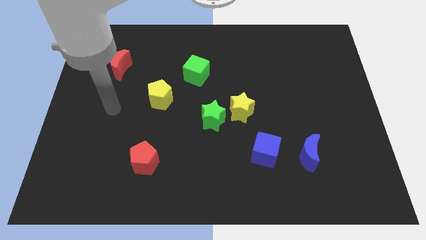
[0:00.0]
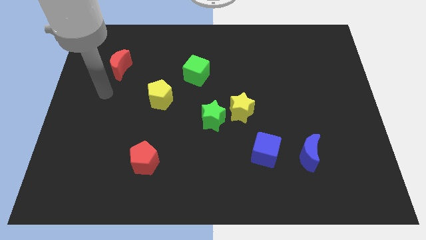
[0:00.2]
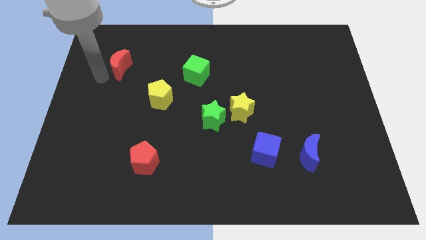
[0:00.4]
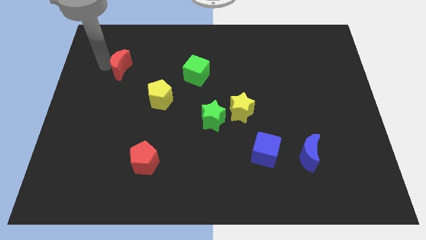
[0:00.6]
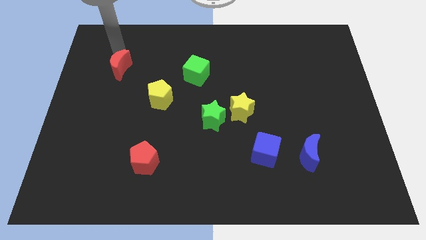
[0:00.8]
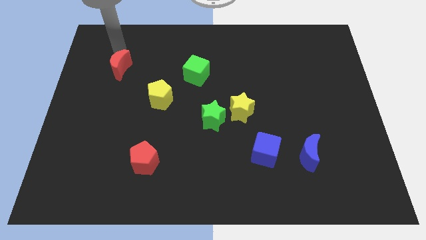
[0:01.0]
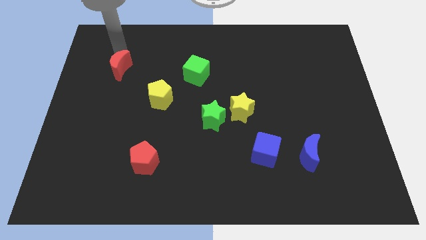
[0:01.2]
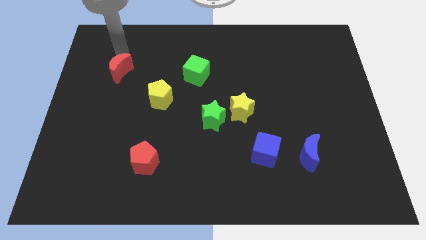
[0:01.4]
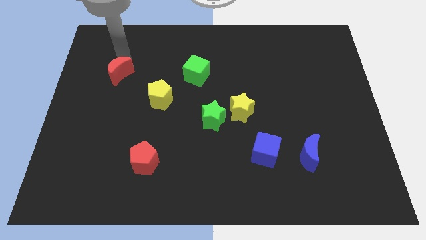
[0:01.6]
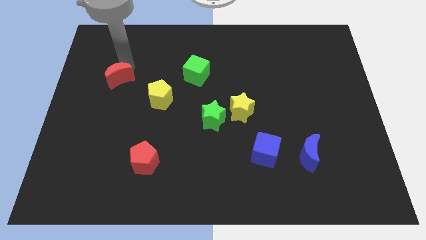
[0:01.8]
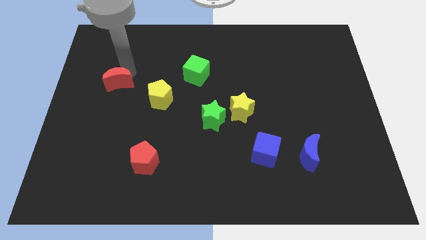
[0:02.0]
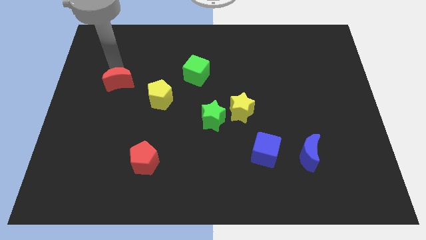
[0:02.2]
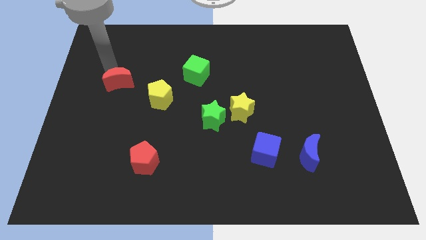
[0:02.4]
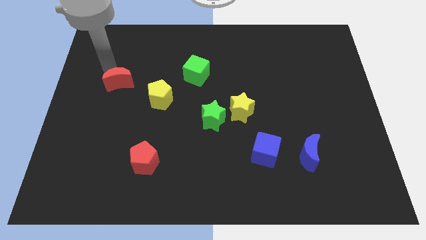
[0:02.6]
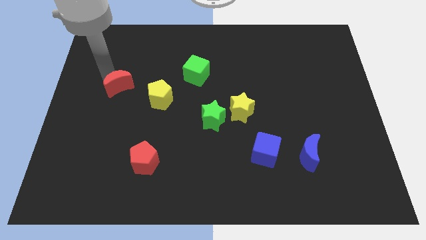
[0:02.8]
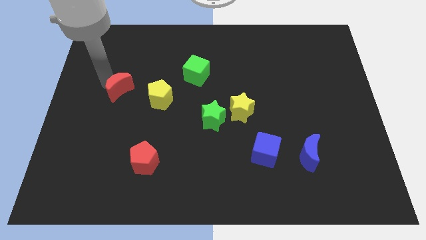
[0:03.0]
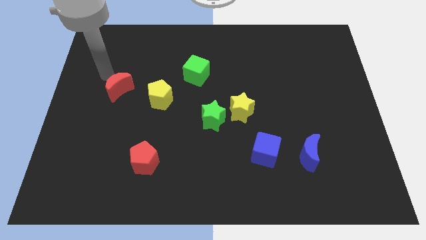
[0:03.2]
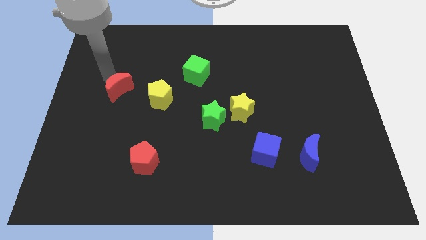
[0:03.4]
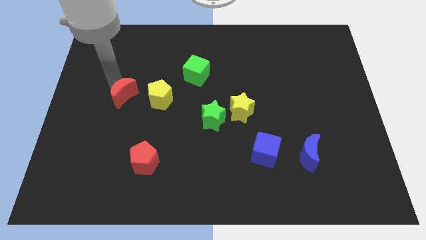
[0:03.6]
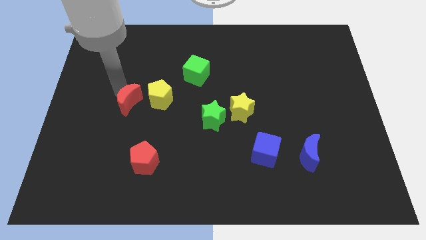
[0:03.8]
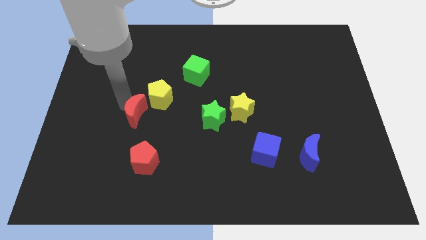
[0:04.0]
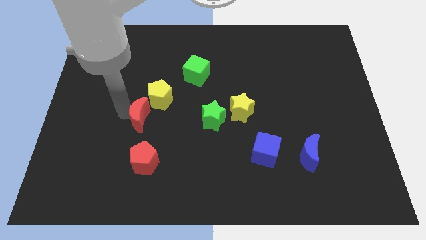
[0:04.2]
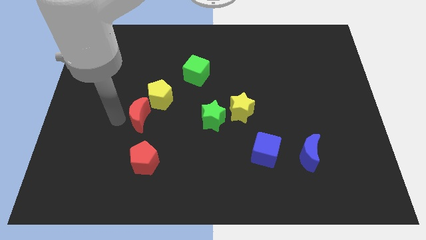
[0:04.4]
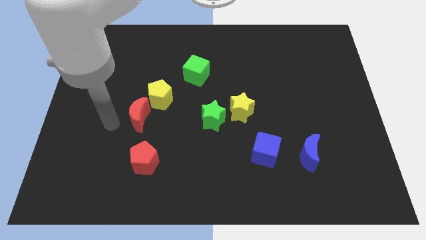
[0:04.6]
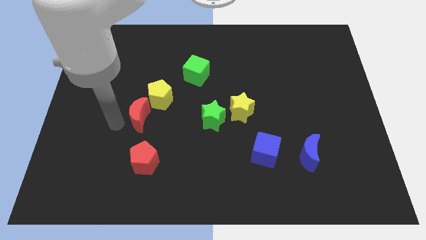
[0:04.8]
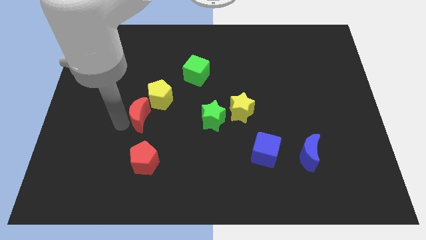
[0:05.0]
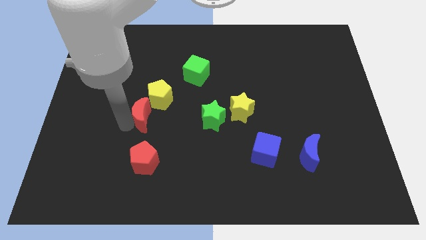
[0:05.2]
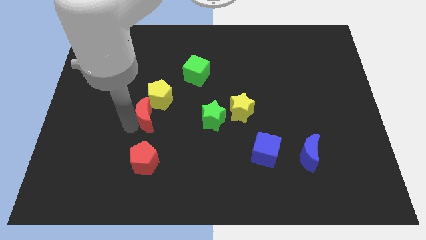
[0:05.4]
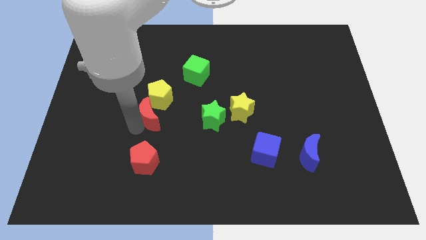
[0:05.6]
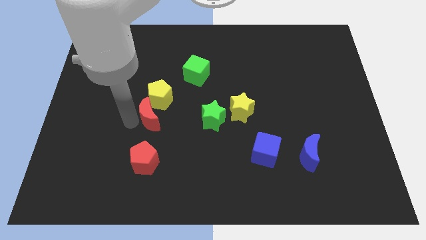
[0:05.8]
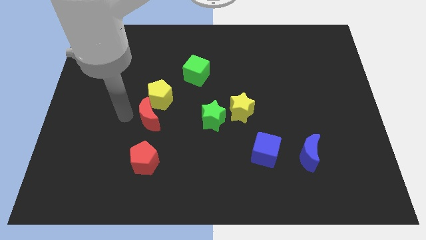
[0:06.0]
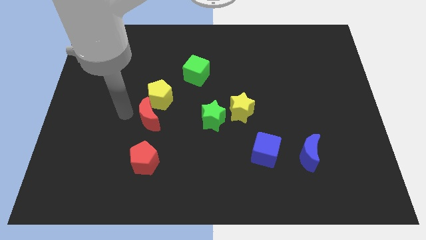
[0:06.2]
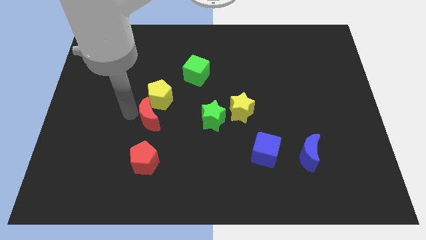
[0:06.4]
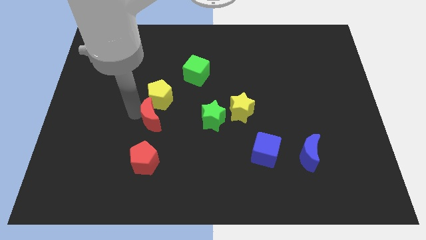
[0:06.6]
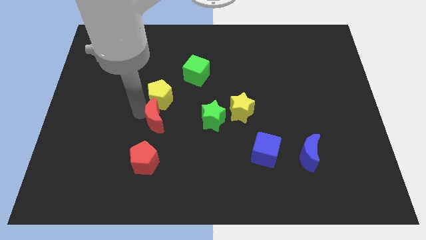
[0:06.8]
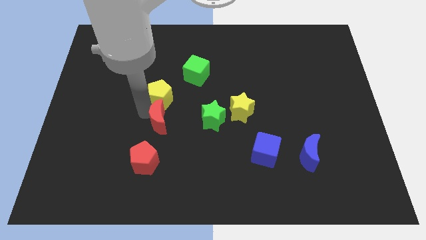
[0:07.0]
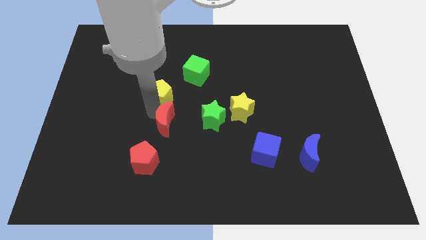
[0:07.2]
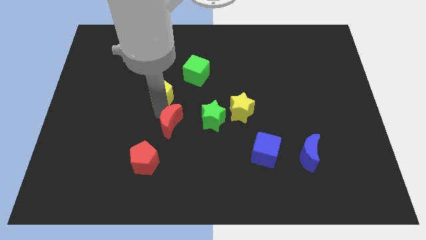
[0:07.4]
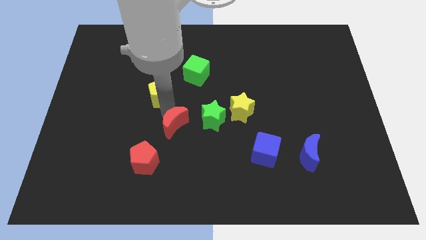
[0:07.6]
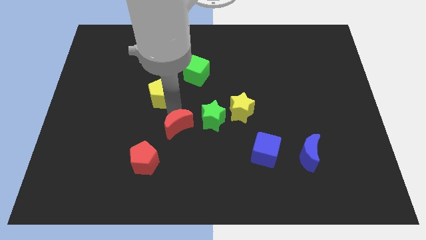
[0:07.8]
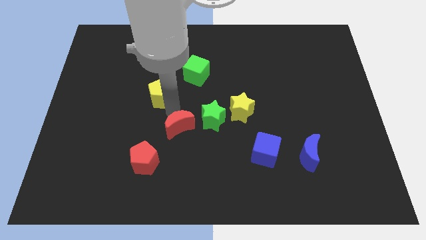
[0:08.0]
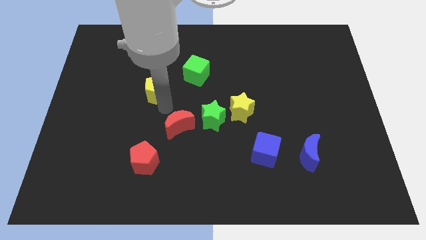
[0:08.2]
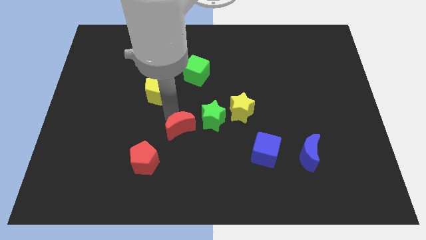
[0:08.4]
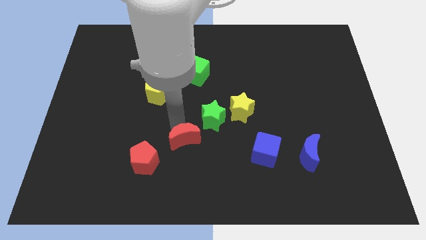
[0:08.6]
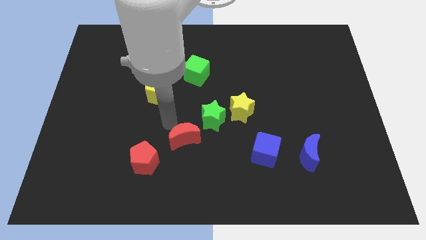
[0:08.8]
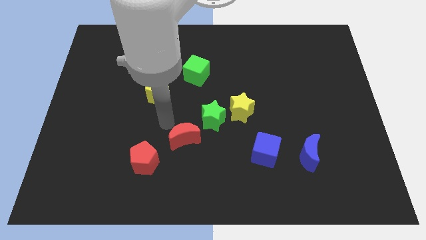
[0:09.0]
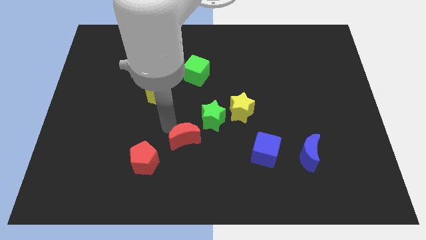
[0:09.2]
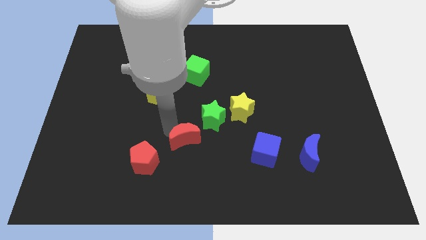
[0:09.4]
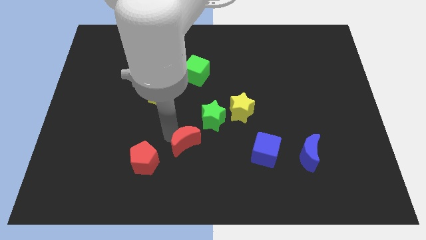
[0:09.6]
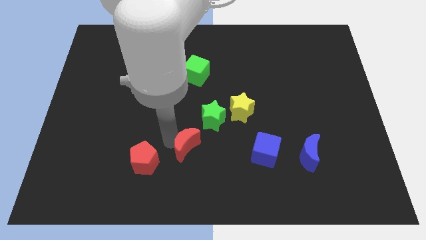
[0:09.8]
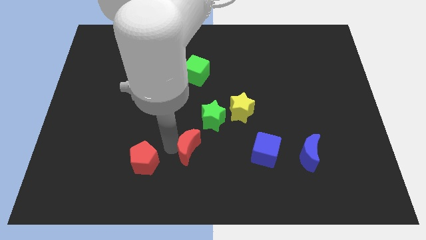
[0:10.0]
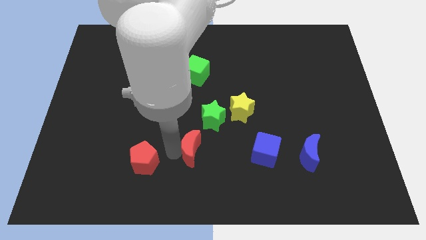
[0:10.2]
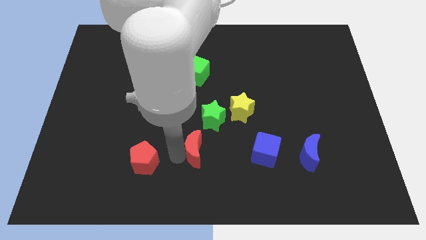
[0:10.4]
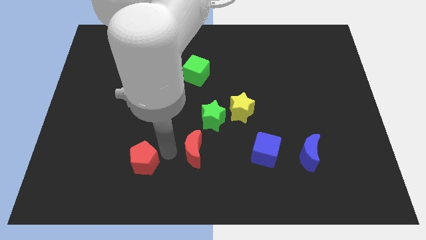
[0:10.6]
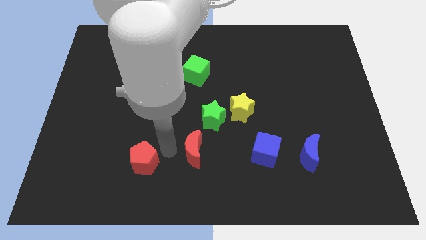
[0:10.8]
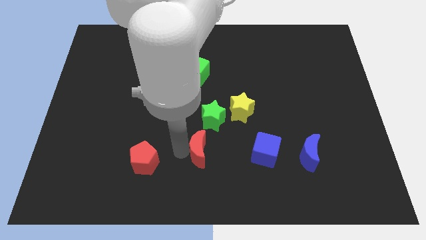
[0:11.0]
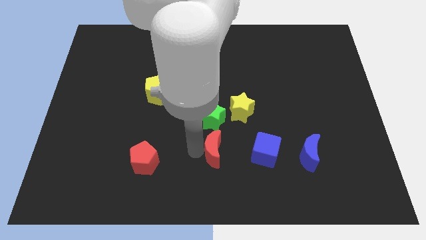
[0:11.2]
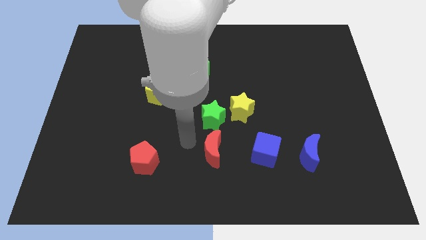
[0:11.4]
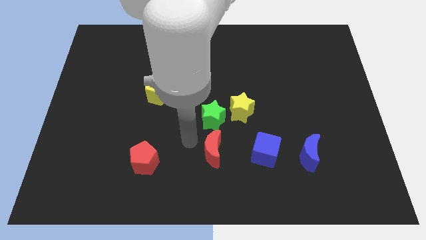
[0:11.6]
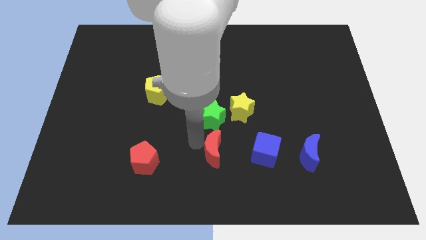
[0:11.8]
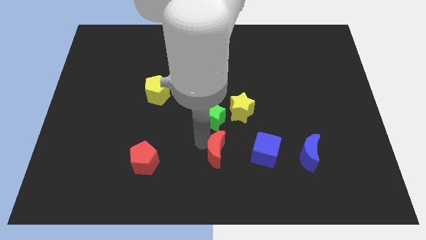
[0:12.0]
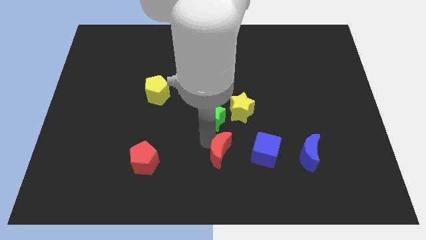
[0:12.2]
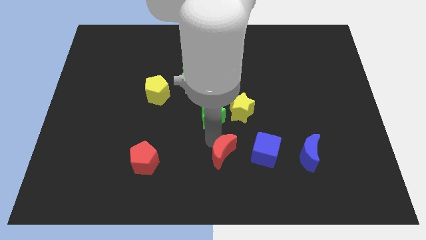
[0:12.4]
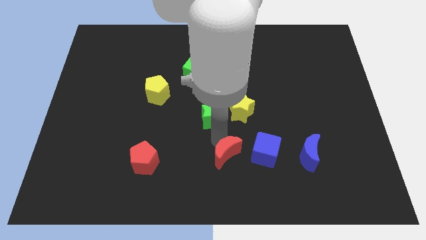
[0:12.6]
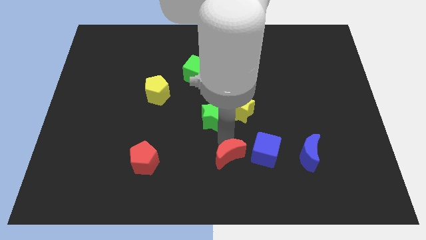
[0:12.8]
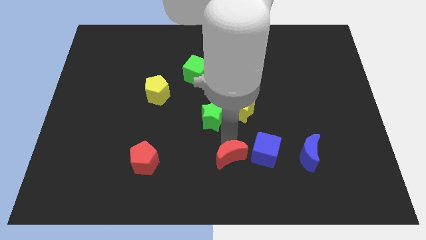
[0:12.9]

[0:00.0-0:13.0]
move the red moon diagonally down and to the left of the blue cube
